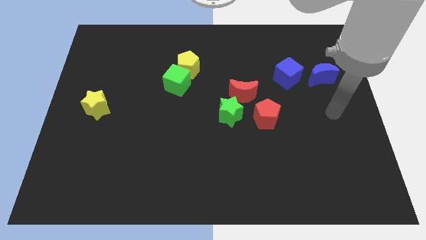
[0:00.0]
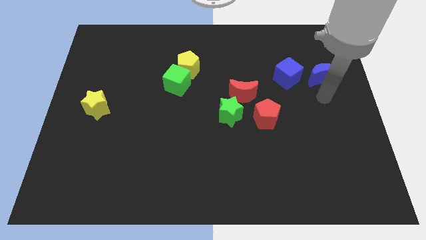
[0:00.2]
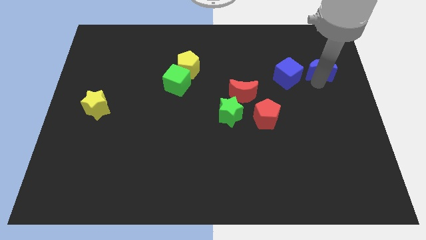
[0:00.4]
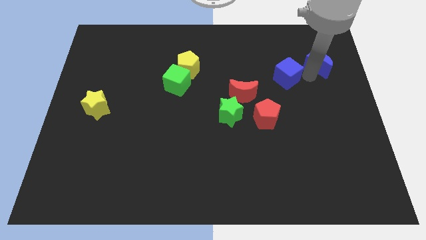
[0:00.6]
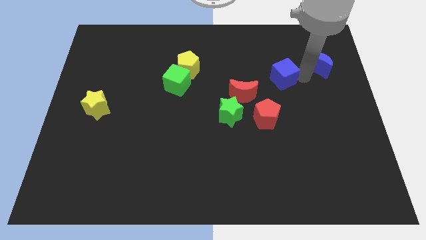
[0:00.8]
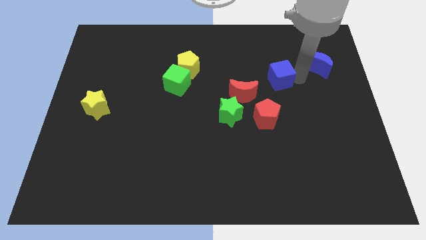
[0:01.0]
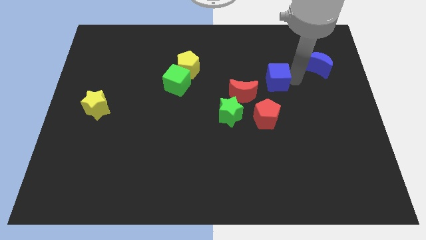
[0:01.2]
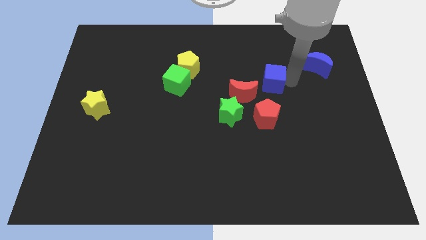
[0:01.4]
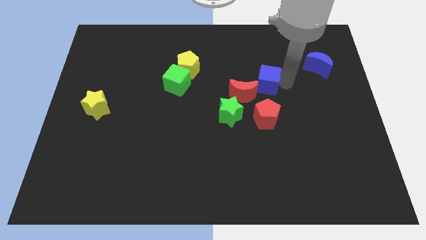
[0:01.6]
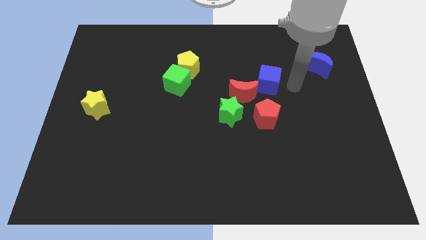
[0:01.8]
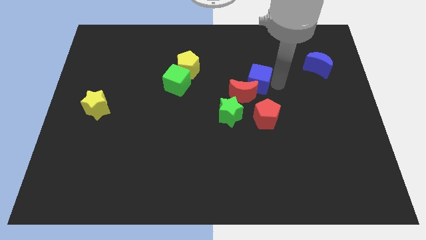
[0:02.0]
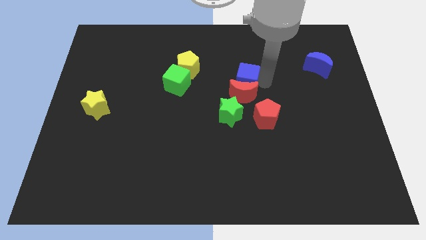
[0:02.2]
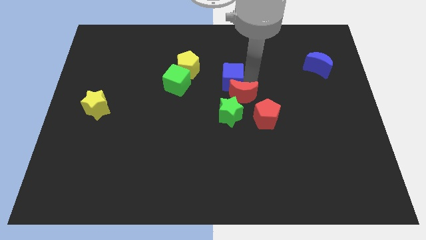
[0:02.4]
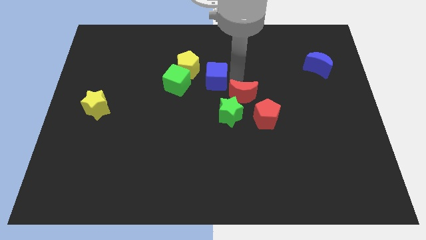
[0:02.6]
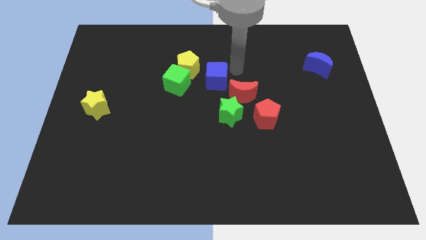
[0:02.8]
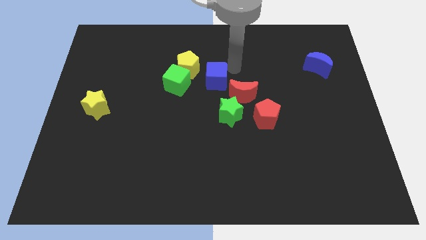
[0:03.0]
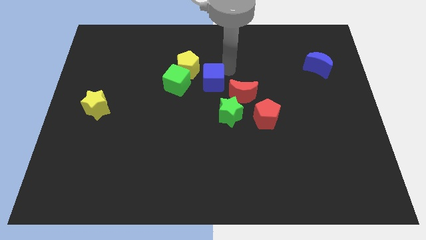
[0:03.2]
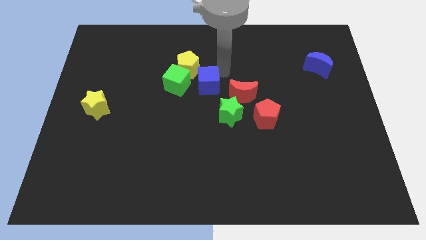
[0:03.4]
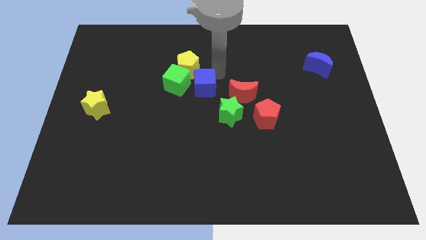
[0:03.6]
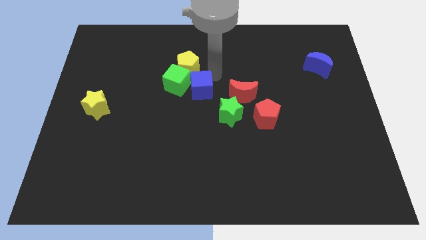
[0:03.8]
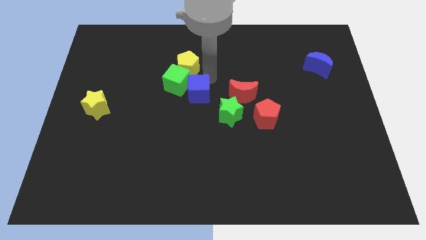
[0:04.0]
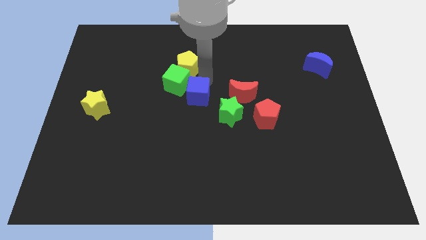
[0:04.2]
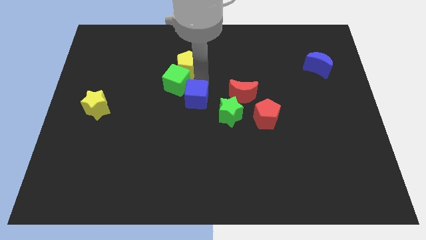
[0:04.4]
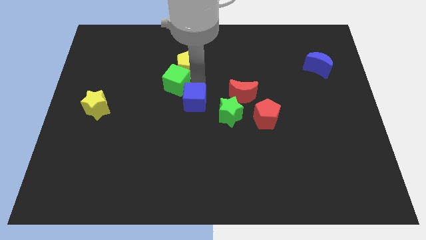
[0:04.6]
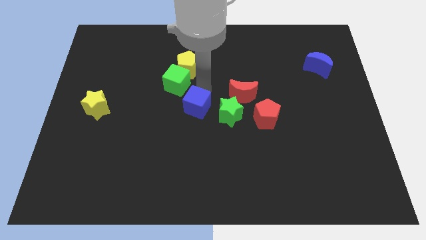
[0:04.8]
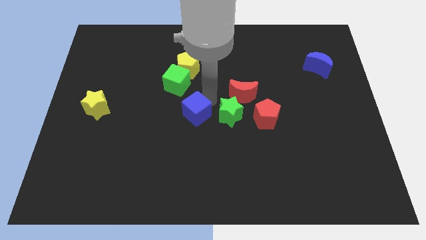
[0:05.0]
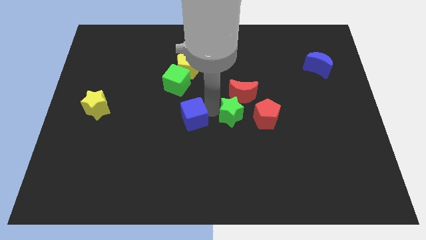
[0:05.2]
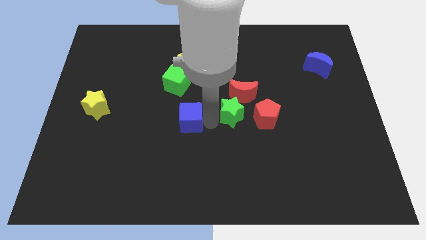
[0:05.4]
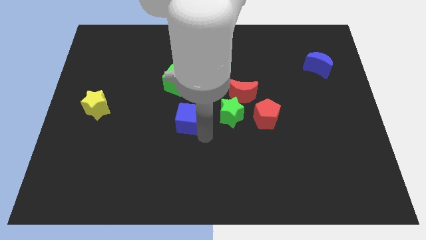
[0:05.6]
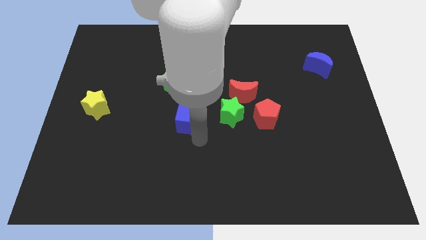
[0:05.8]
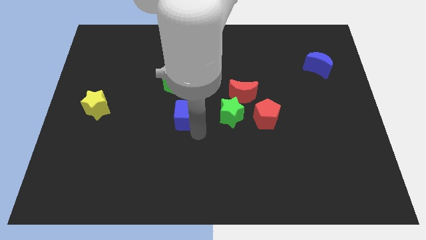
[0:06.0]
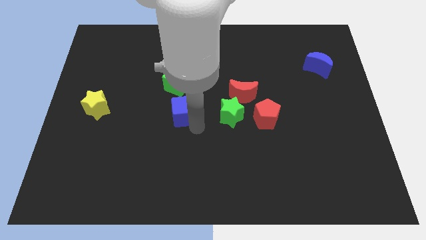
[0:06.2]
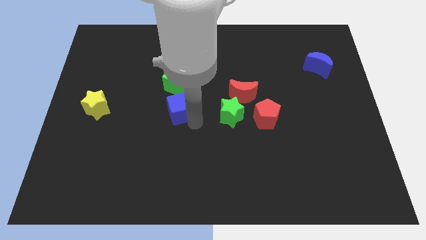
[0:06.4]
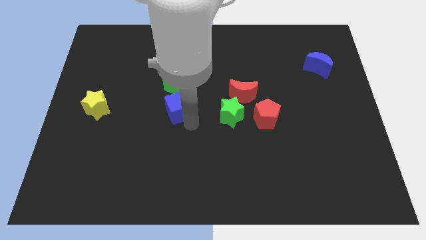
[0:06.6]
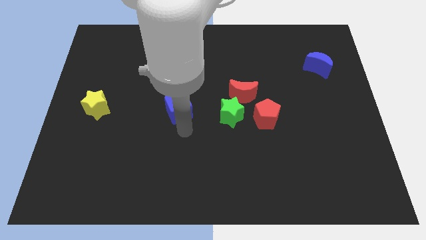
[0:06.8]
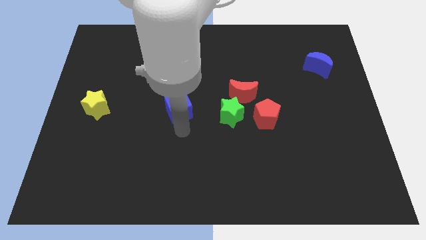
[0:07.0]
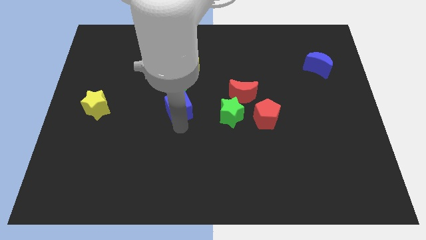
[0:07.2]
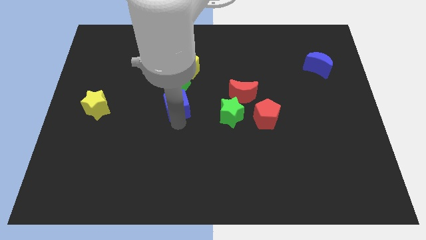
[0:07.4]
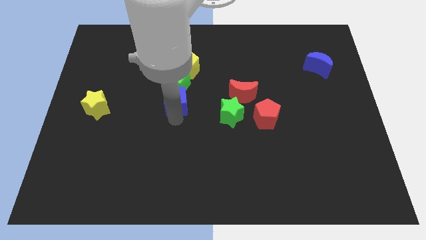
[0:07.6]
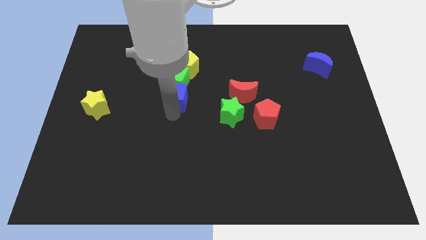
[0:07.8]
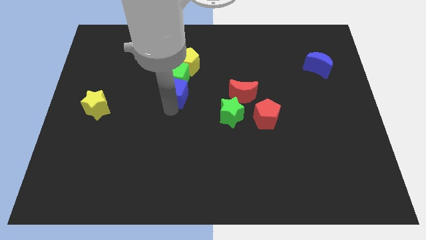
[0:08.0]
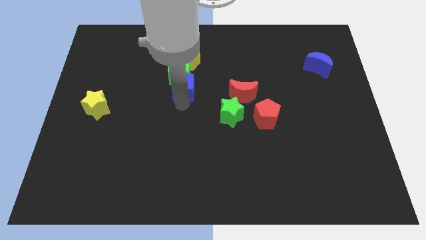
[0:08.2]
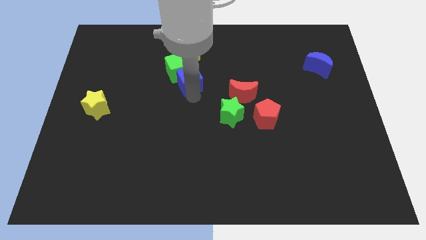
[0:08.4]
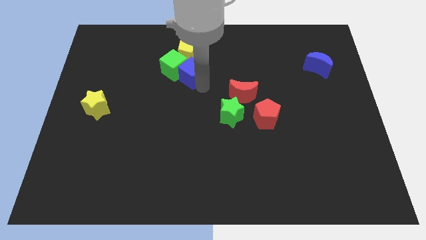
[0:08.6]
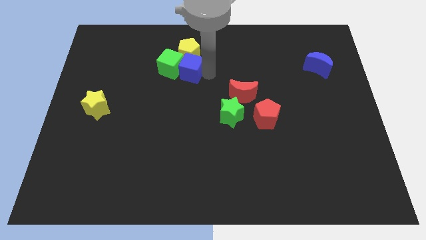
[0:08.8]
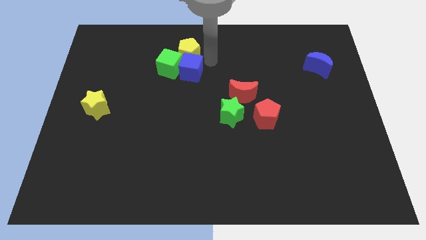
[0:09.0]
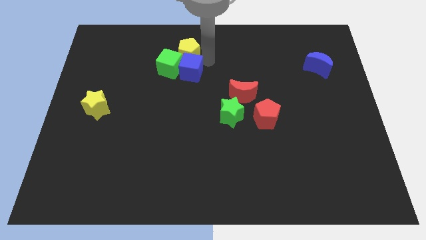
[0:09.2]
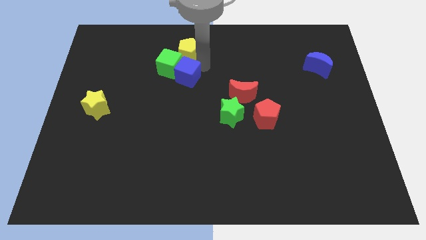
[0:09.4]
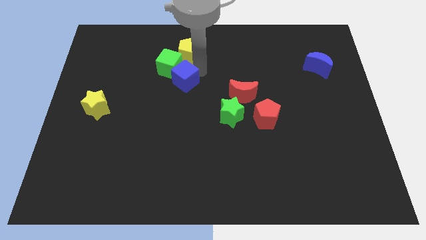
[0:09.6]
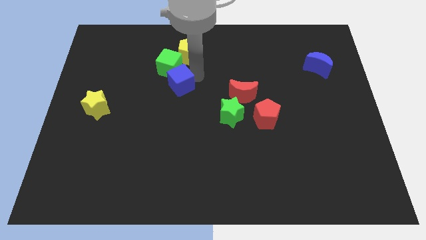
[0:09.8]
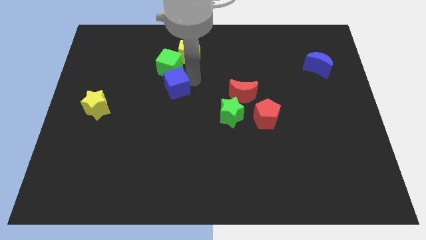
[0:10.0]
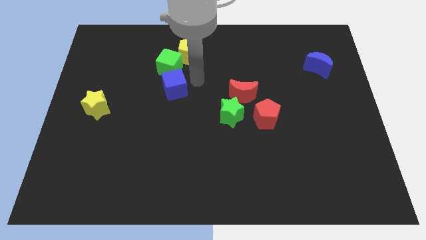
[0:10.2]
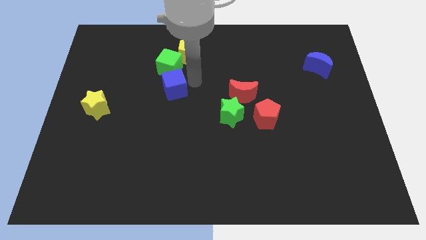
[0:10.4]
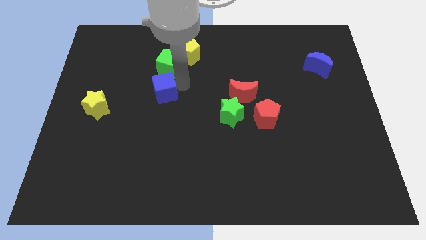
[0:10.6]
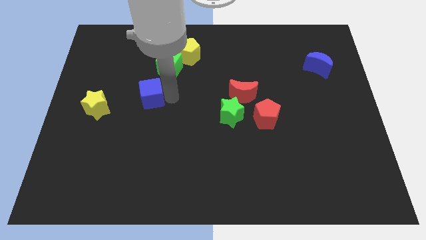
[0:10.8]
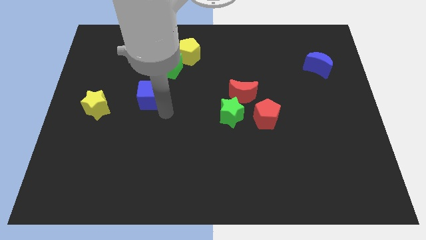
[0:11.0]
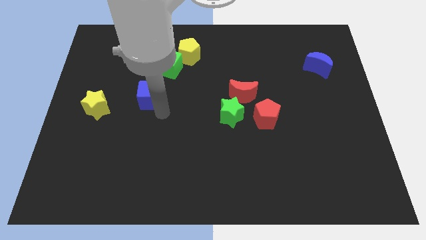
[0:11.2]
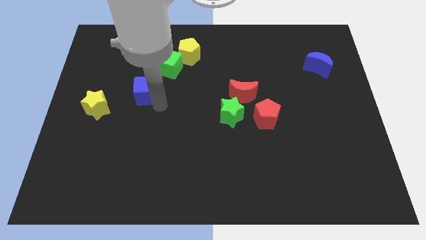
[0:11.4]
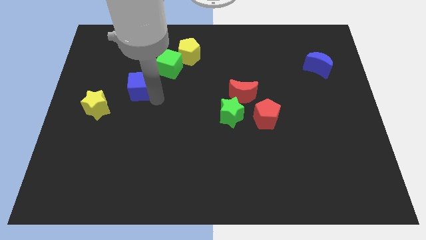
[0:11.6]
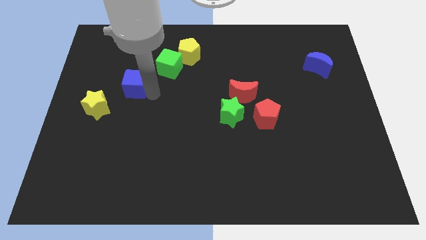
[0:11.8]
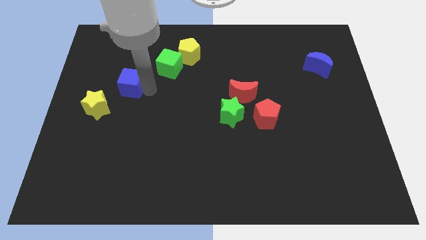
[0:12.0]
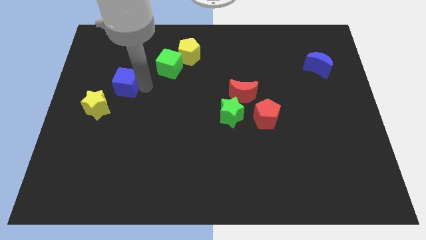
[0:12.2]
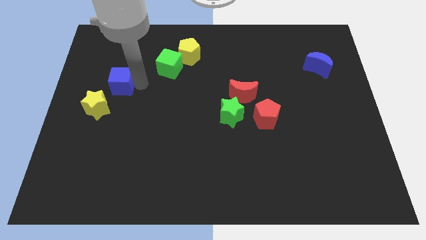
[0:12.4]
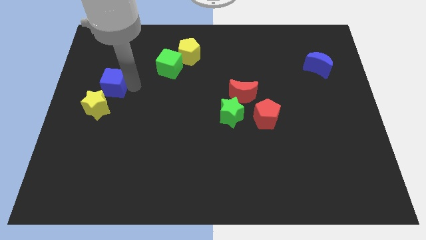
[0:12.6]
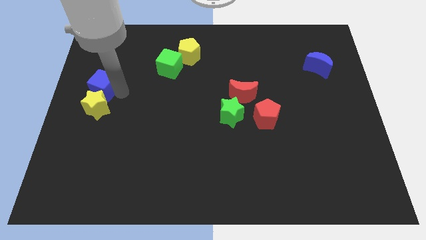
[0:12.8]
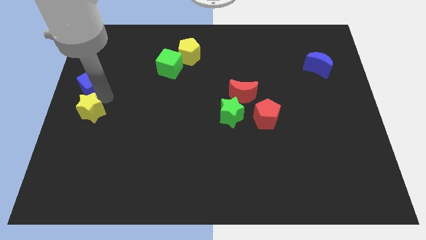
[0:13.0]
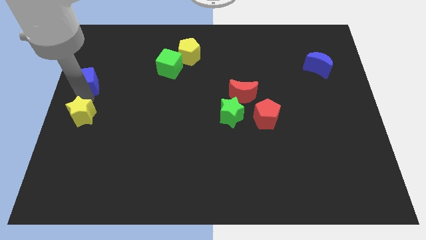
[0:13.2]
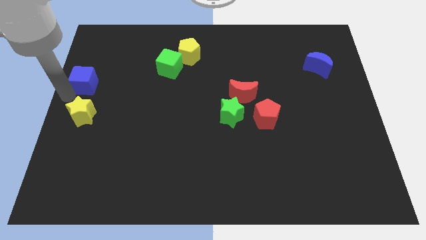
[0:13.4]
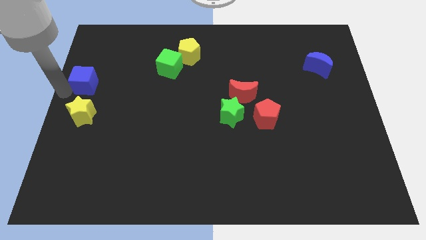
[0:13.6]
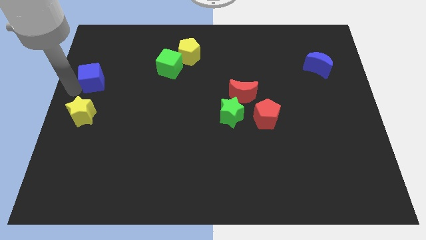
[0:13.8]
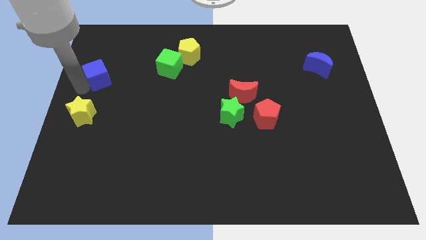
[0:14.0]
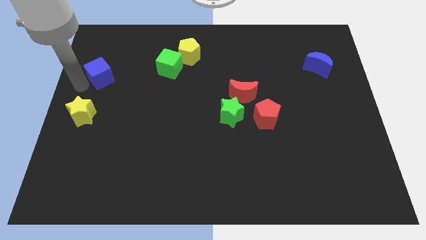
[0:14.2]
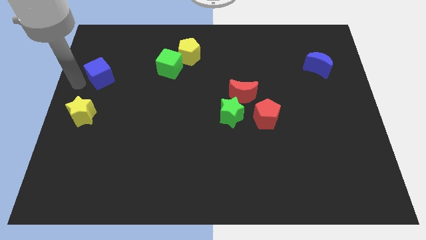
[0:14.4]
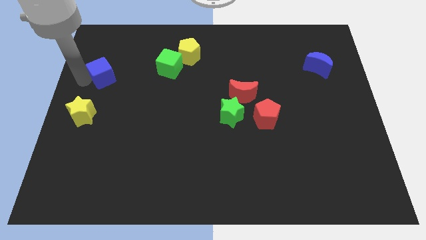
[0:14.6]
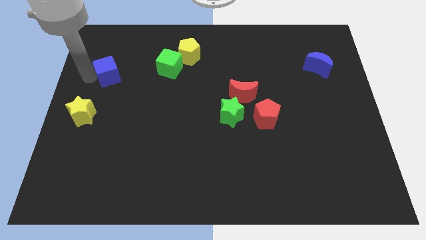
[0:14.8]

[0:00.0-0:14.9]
put the blue cube to the left side of the green cube
